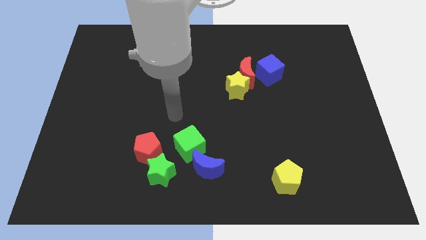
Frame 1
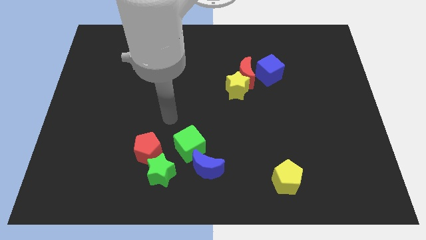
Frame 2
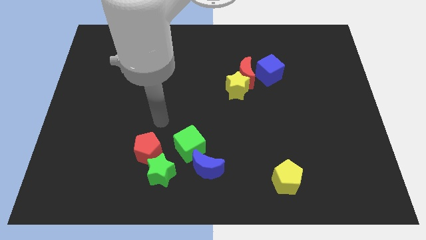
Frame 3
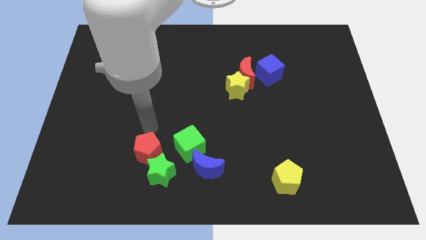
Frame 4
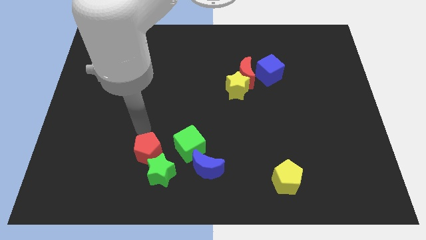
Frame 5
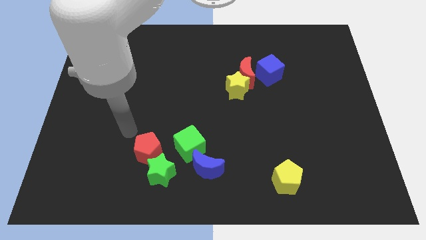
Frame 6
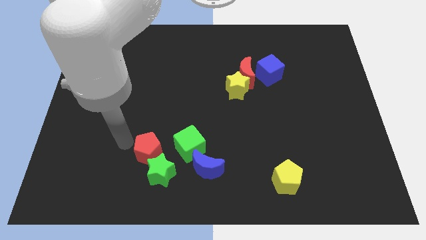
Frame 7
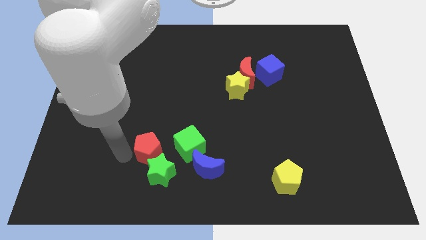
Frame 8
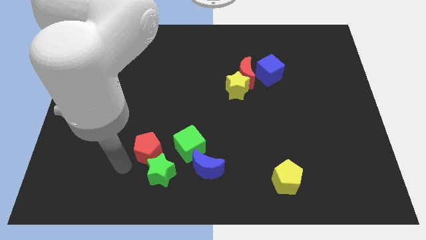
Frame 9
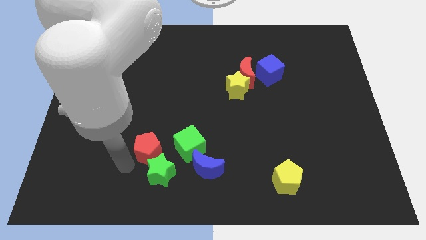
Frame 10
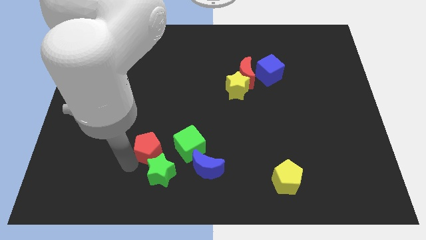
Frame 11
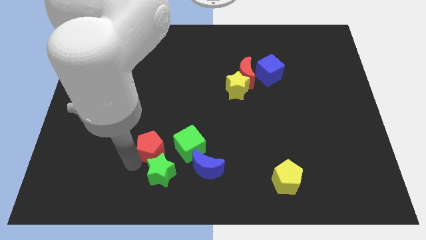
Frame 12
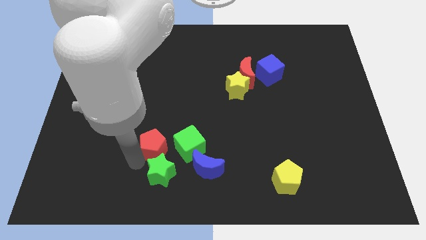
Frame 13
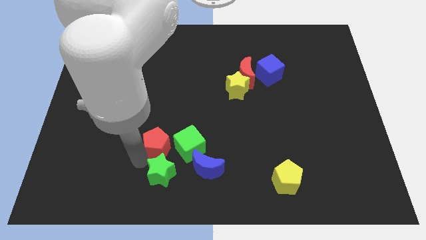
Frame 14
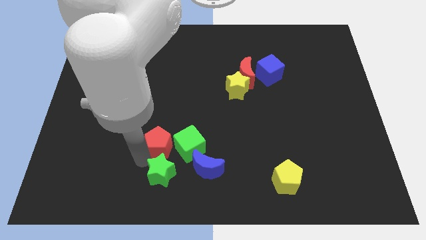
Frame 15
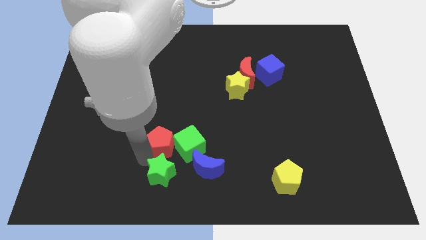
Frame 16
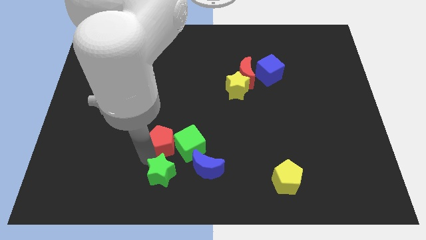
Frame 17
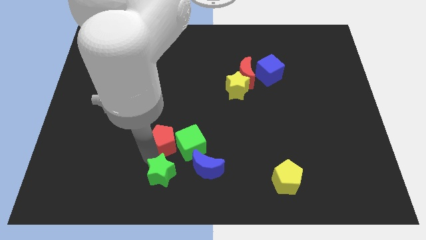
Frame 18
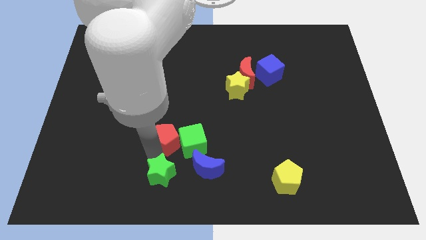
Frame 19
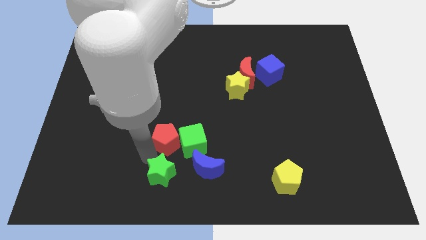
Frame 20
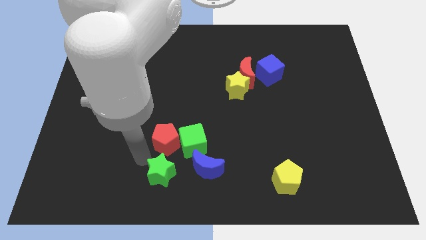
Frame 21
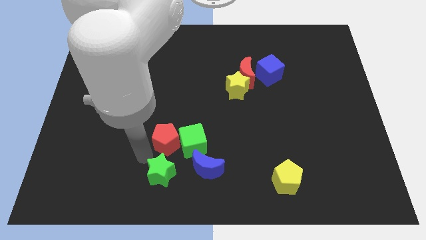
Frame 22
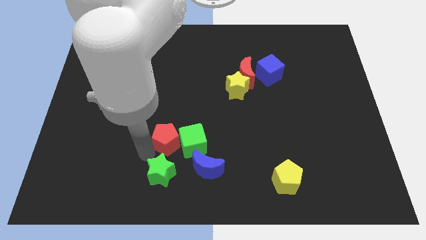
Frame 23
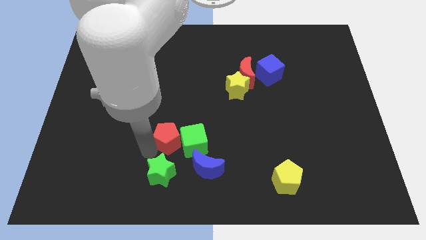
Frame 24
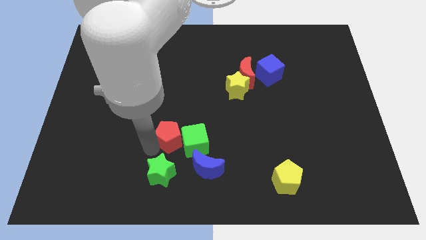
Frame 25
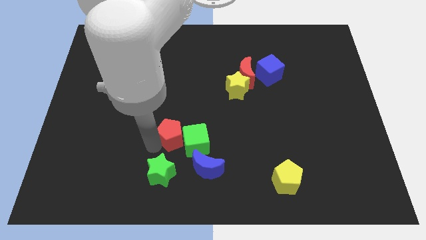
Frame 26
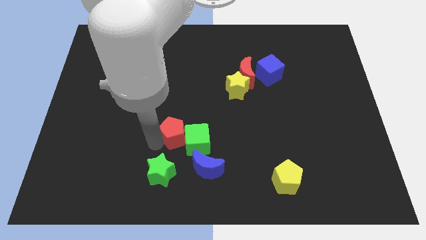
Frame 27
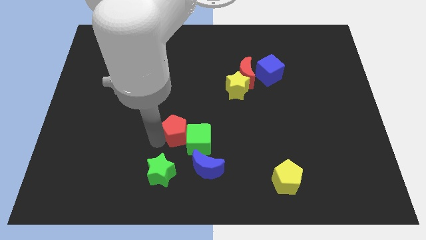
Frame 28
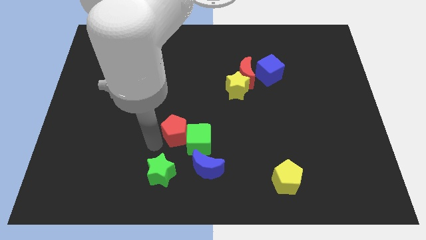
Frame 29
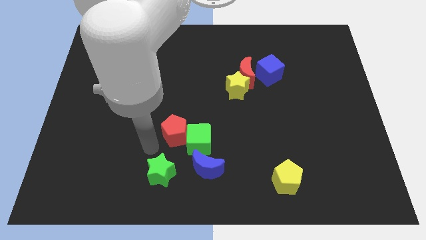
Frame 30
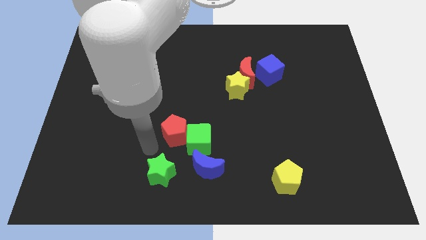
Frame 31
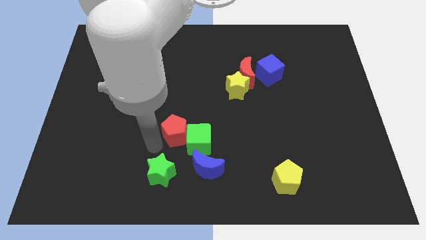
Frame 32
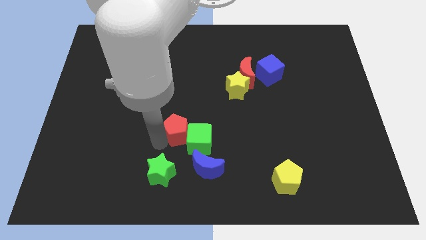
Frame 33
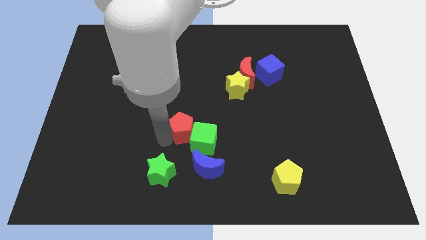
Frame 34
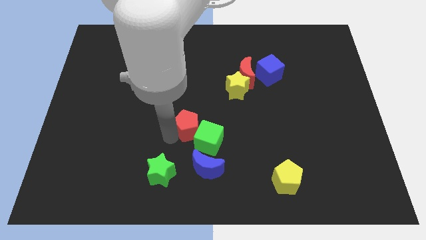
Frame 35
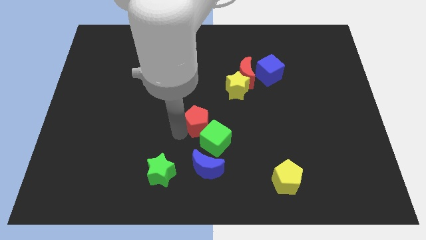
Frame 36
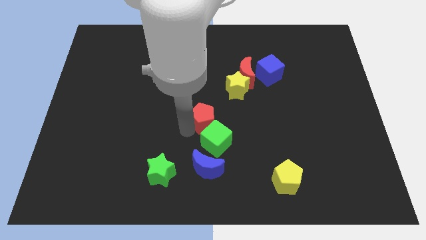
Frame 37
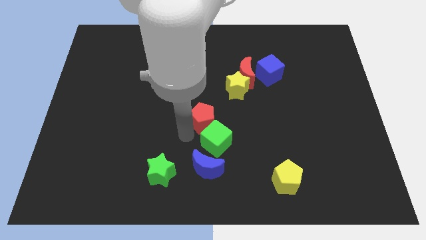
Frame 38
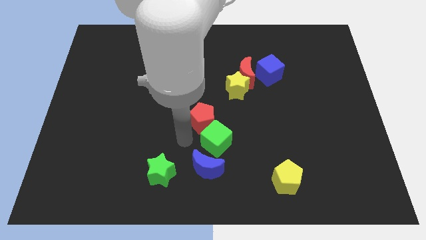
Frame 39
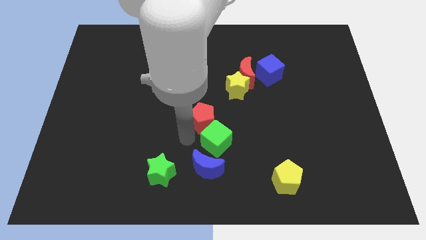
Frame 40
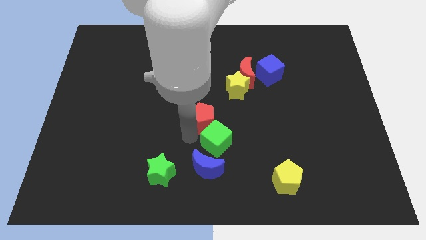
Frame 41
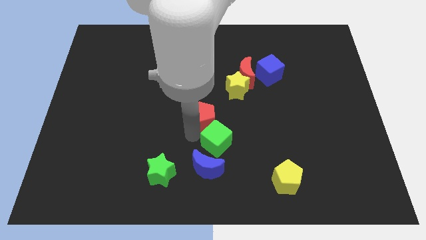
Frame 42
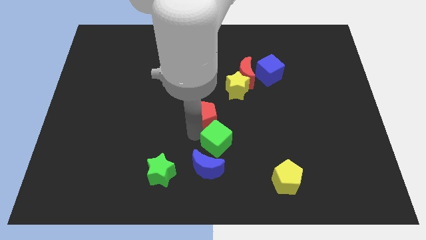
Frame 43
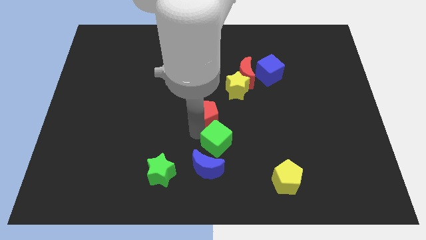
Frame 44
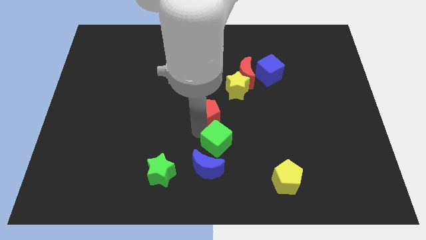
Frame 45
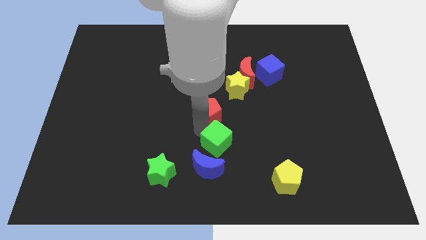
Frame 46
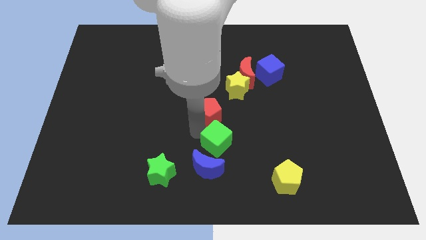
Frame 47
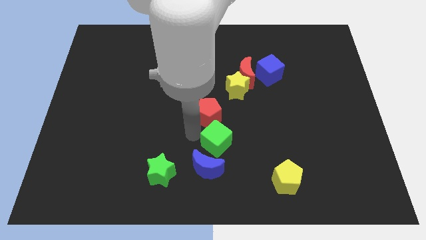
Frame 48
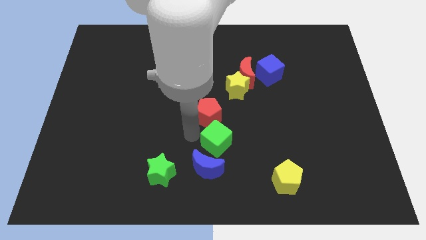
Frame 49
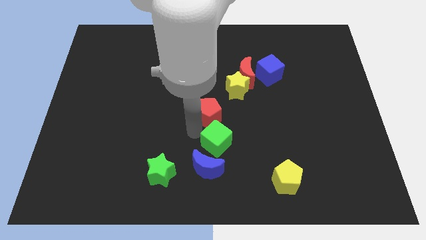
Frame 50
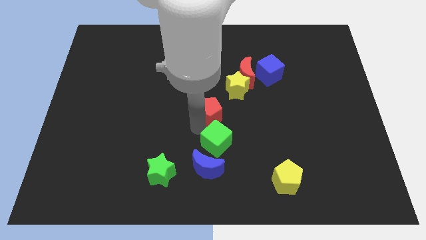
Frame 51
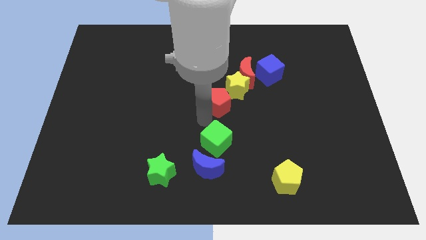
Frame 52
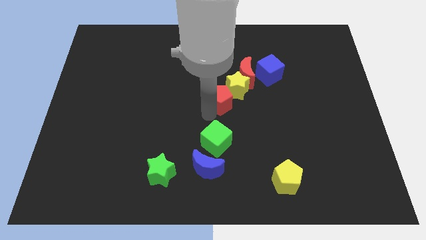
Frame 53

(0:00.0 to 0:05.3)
push the red pentagon next to the yellow star

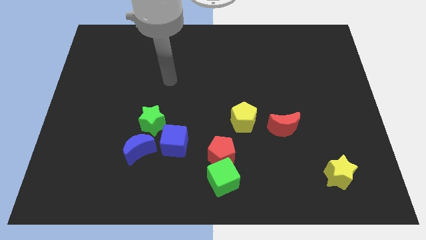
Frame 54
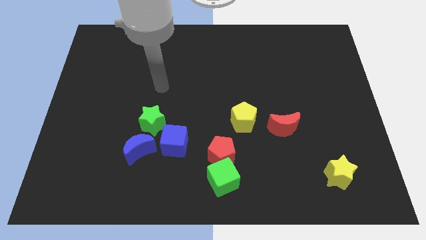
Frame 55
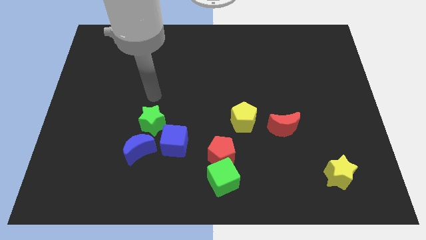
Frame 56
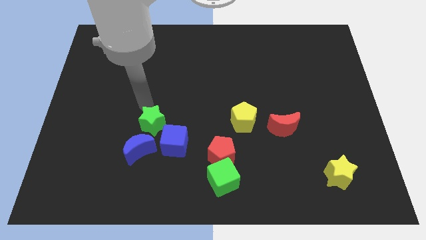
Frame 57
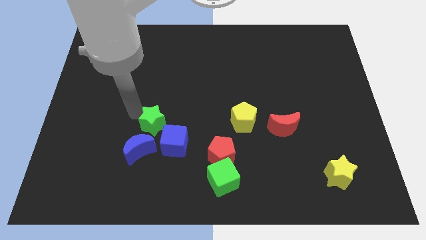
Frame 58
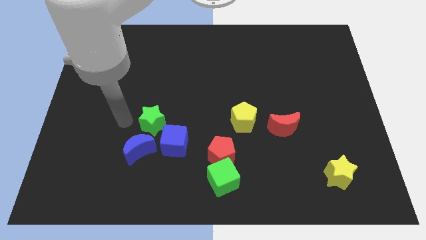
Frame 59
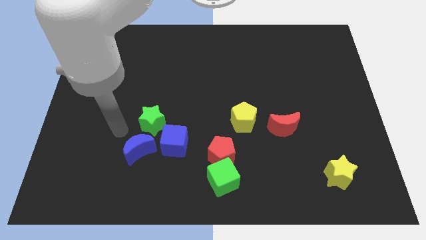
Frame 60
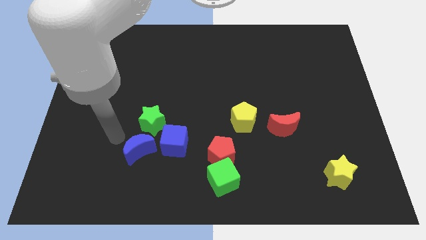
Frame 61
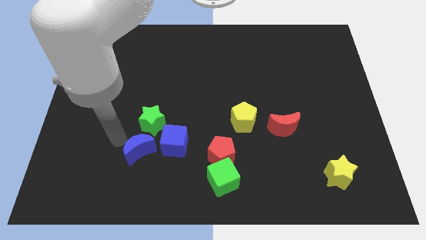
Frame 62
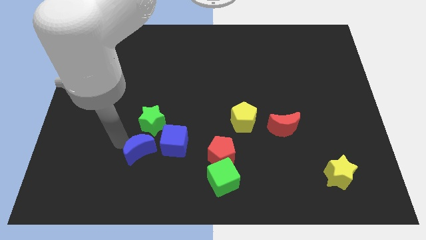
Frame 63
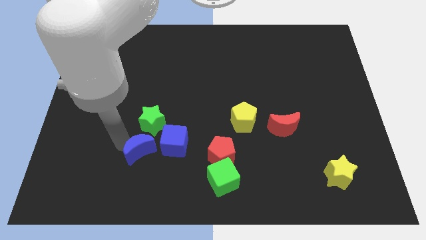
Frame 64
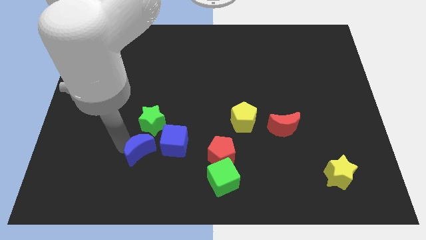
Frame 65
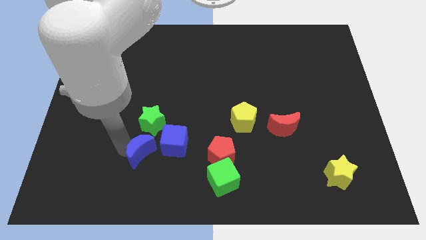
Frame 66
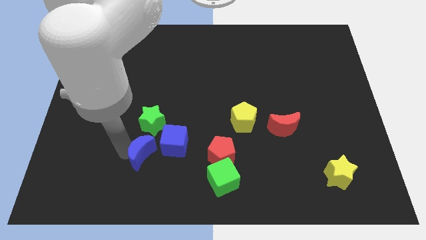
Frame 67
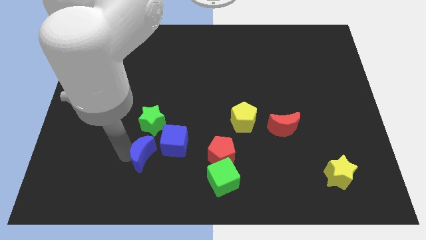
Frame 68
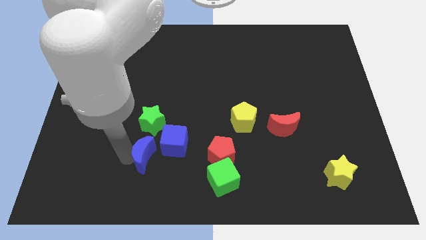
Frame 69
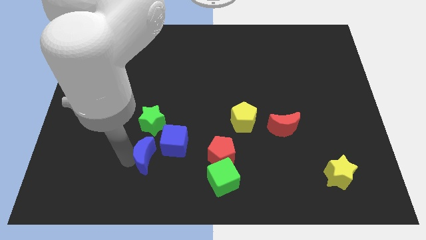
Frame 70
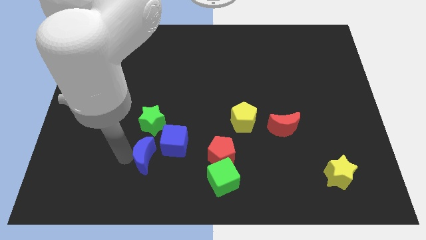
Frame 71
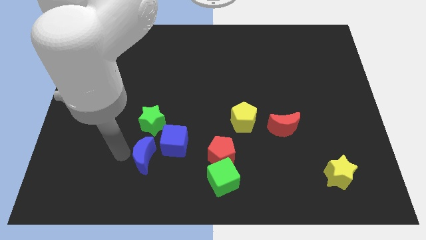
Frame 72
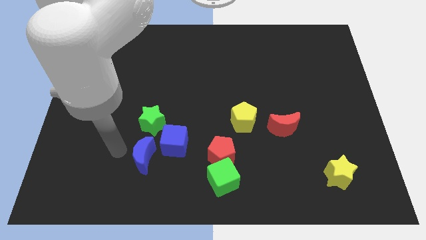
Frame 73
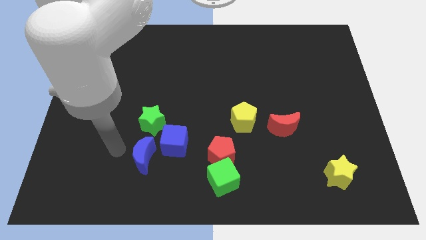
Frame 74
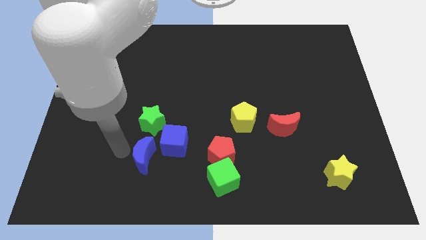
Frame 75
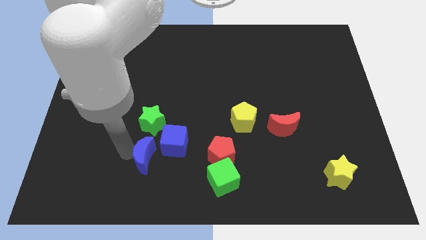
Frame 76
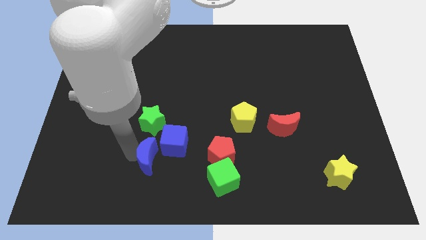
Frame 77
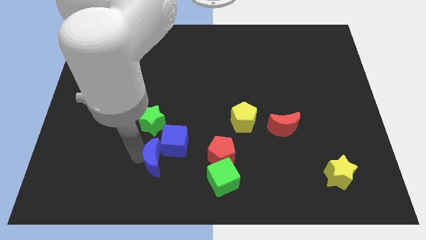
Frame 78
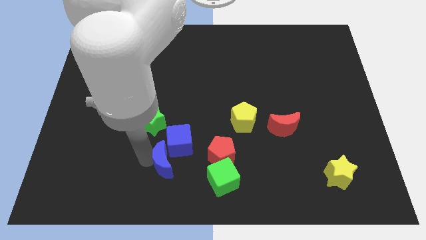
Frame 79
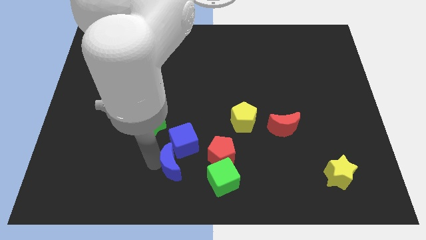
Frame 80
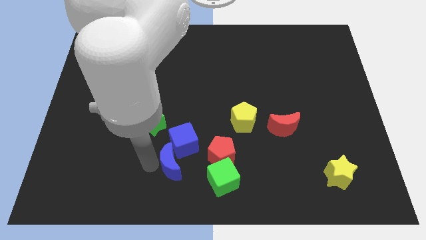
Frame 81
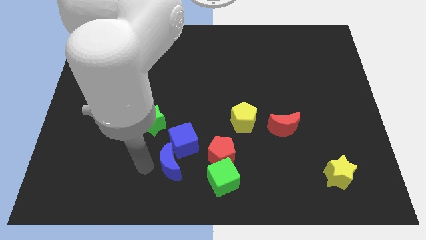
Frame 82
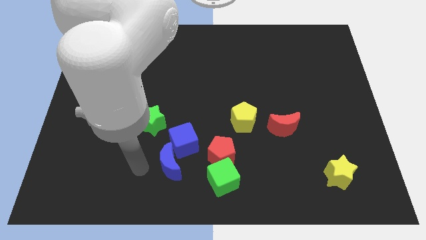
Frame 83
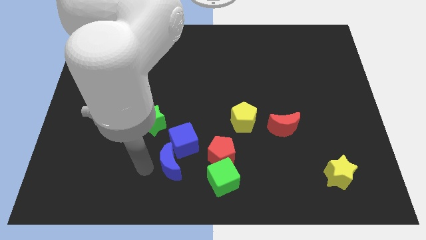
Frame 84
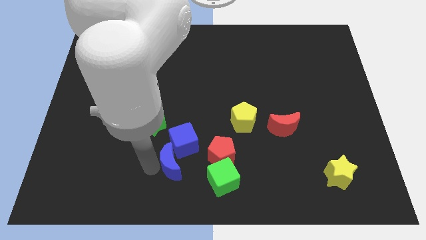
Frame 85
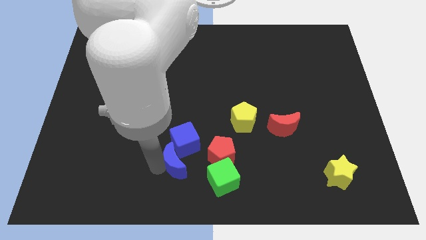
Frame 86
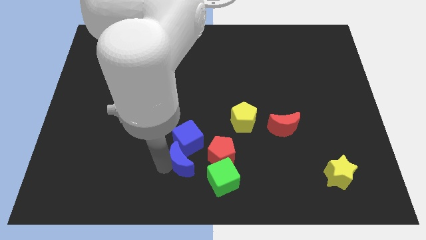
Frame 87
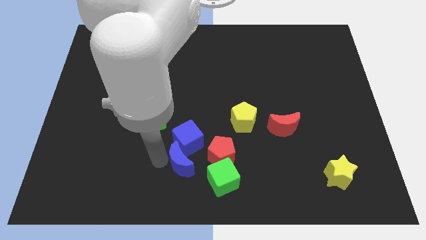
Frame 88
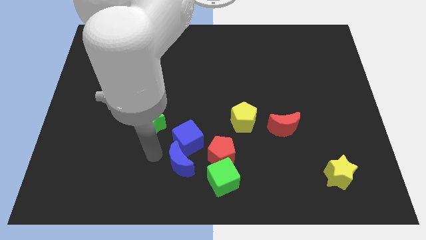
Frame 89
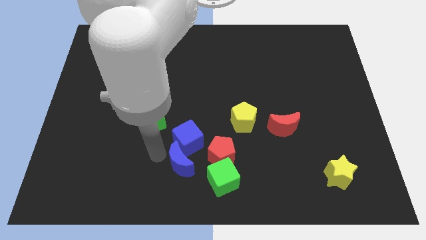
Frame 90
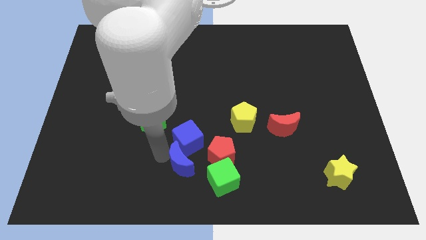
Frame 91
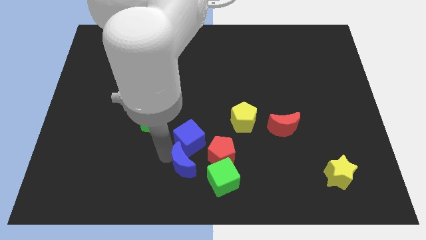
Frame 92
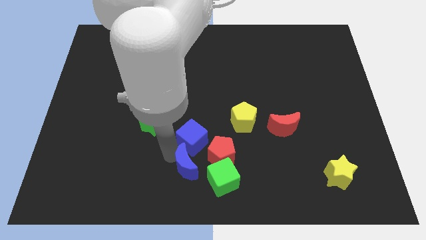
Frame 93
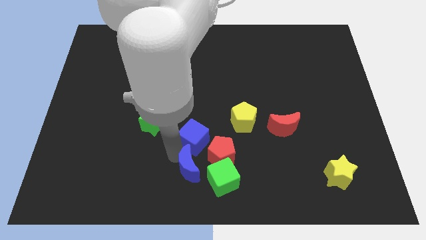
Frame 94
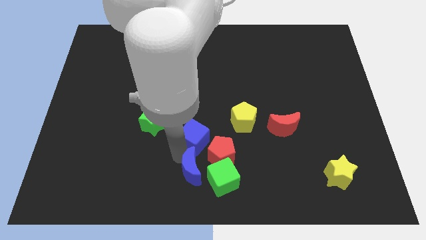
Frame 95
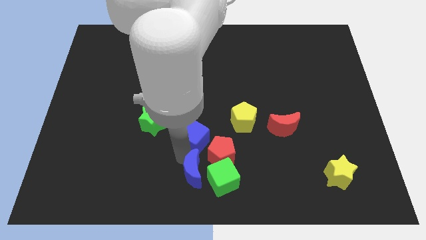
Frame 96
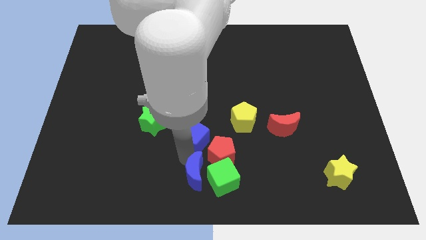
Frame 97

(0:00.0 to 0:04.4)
move the blue moon next to the green cube
